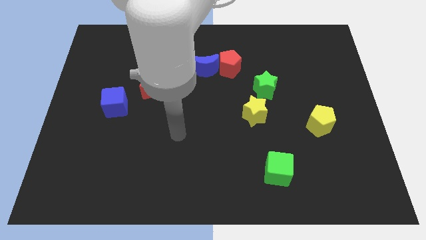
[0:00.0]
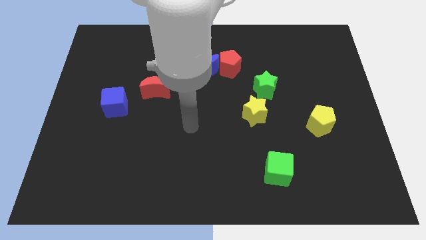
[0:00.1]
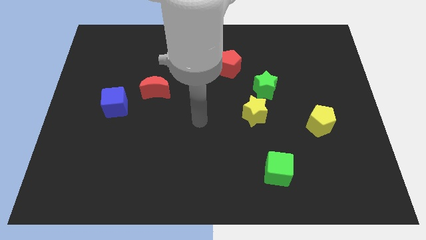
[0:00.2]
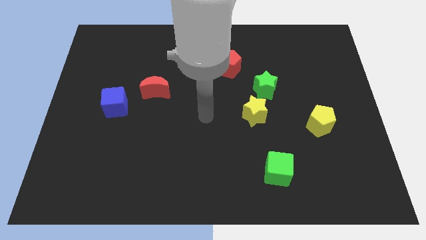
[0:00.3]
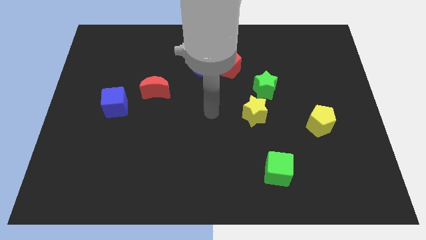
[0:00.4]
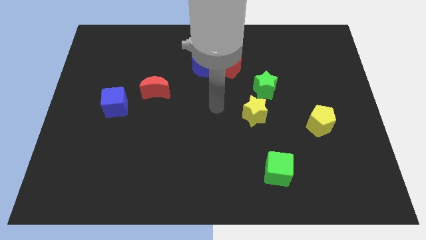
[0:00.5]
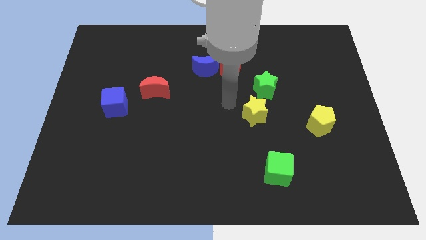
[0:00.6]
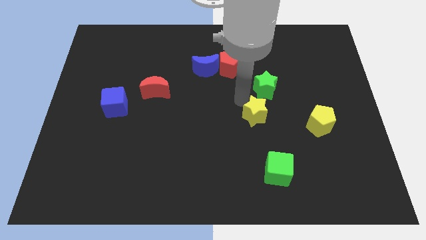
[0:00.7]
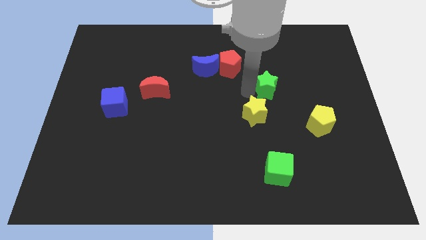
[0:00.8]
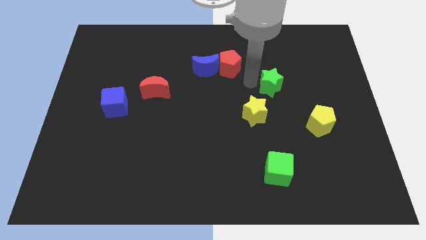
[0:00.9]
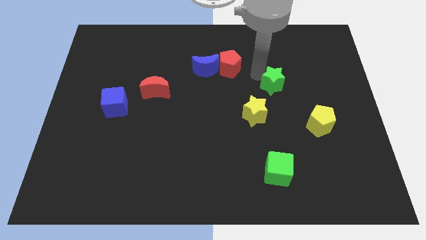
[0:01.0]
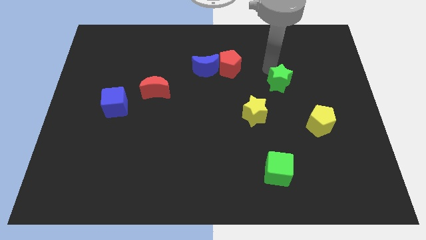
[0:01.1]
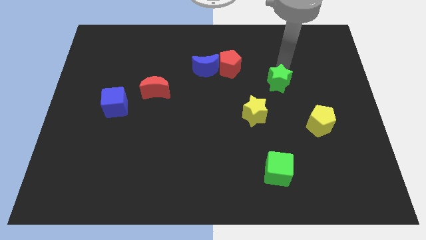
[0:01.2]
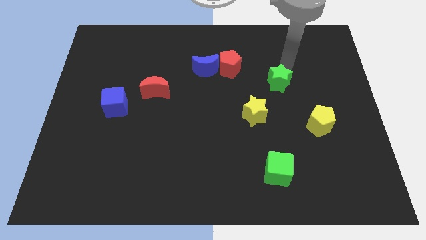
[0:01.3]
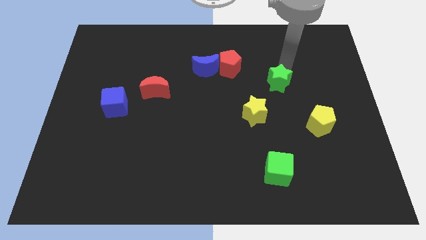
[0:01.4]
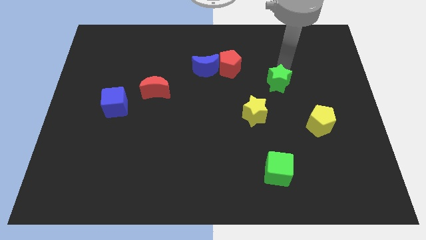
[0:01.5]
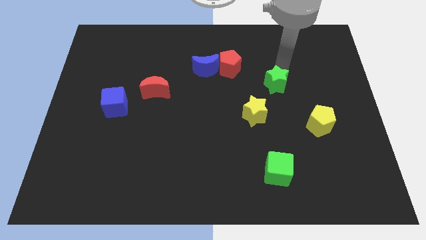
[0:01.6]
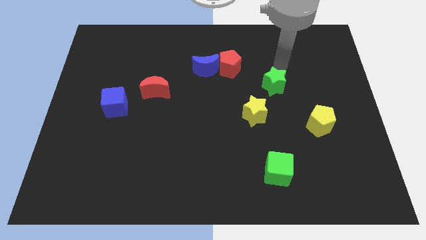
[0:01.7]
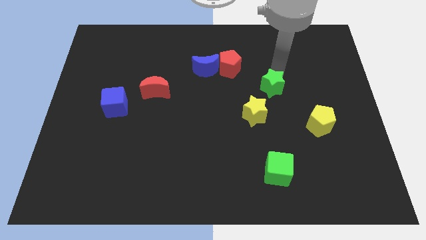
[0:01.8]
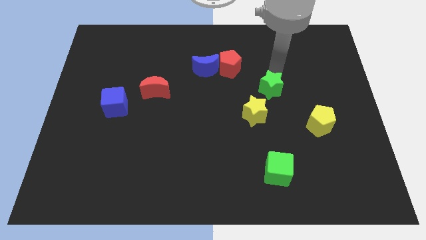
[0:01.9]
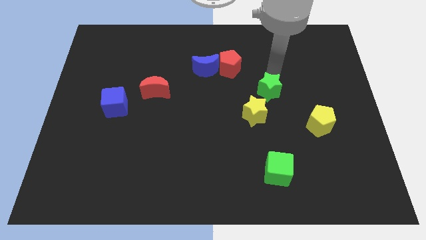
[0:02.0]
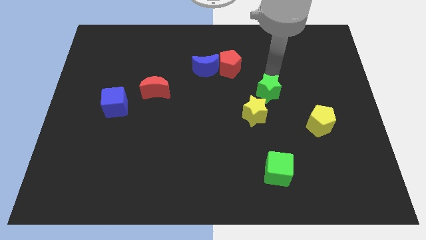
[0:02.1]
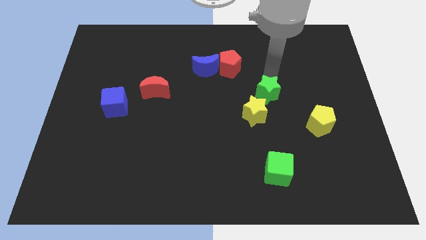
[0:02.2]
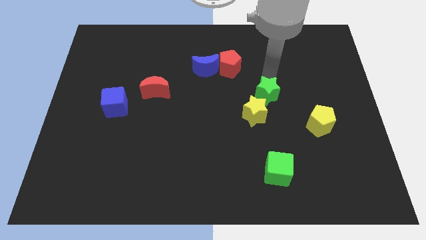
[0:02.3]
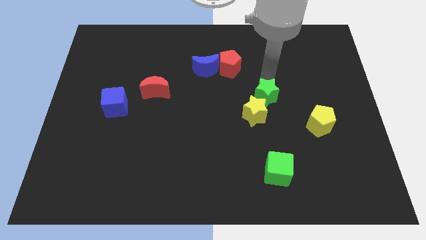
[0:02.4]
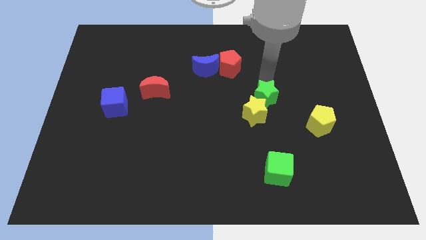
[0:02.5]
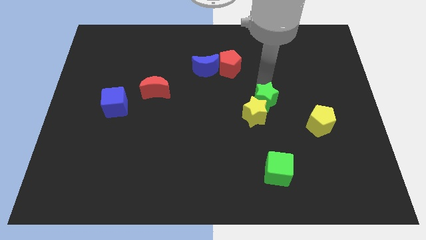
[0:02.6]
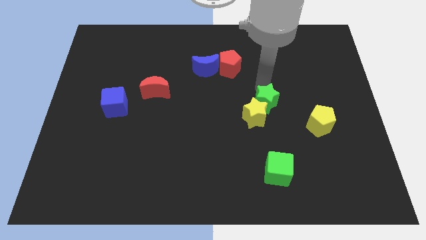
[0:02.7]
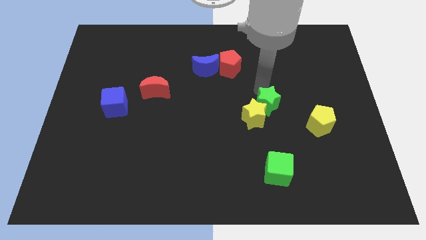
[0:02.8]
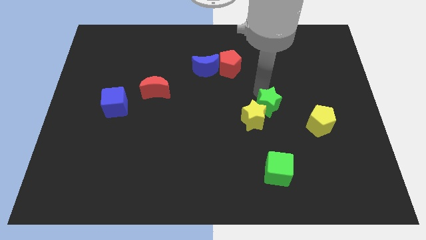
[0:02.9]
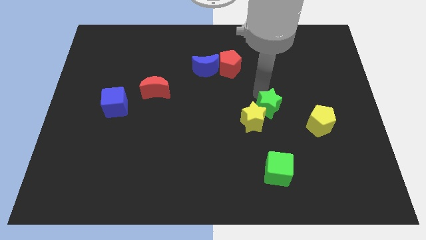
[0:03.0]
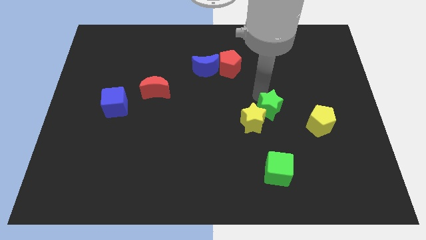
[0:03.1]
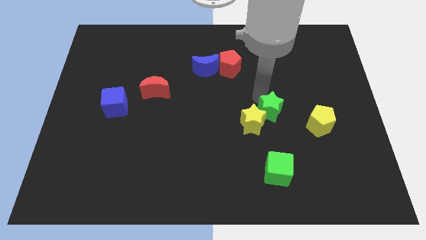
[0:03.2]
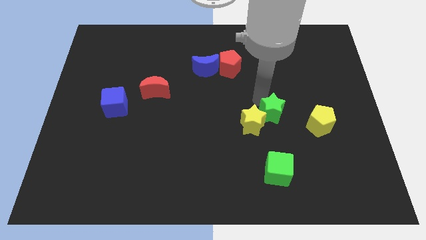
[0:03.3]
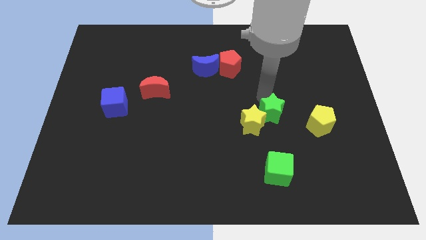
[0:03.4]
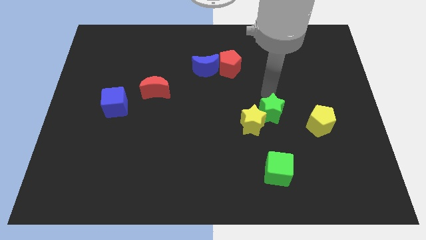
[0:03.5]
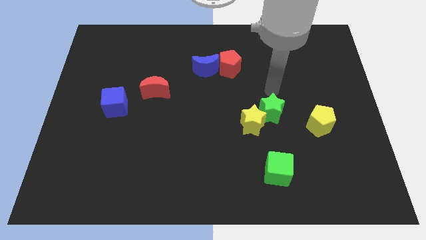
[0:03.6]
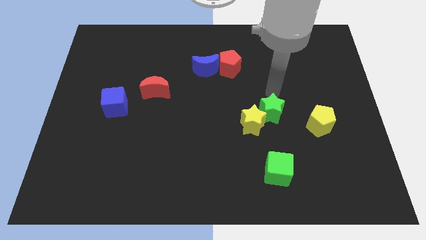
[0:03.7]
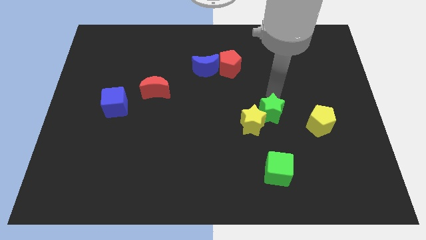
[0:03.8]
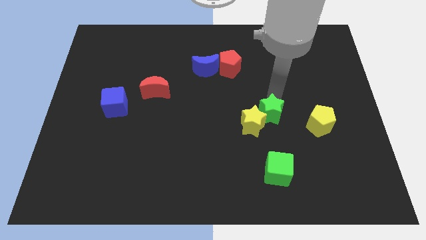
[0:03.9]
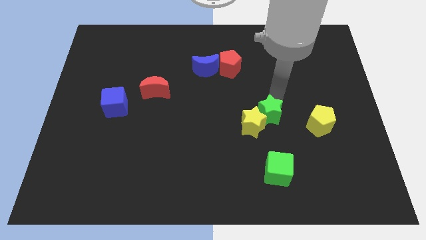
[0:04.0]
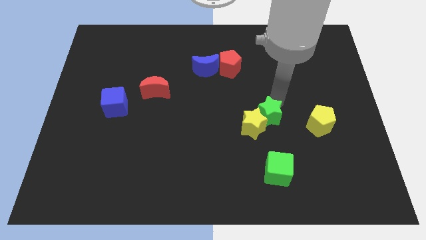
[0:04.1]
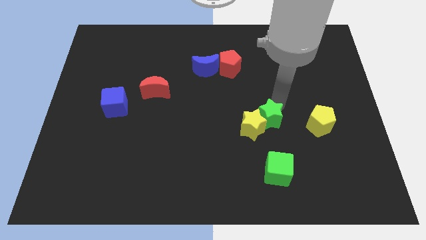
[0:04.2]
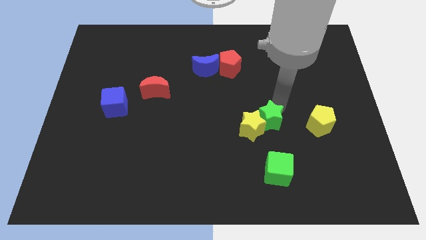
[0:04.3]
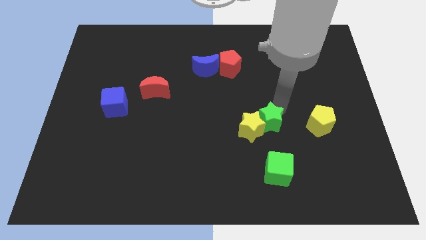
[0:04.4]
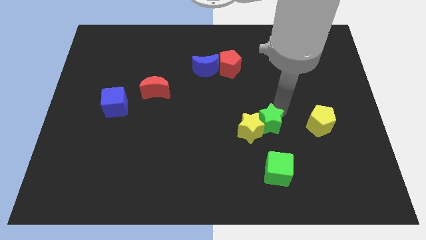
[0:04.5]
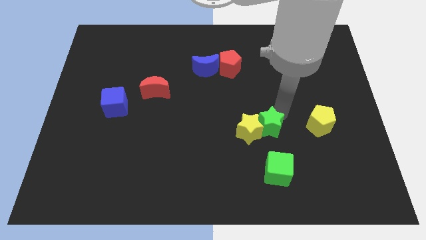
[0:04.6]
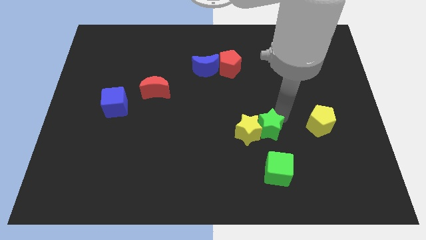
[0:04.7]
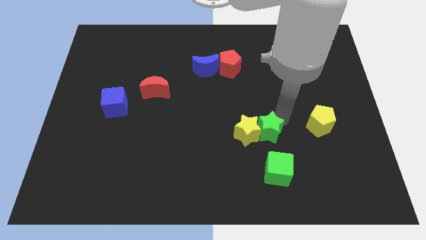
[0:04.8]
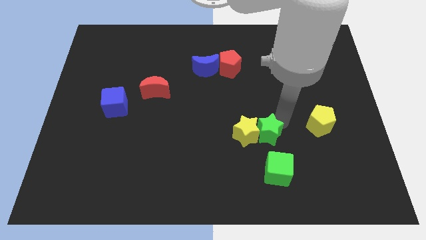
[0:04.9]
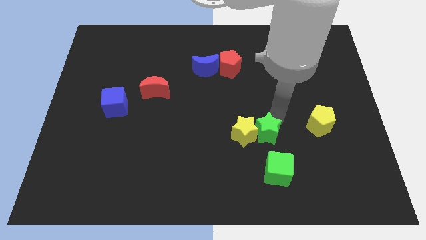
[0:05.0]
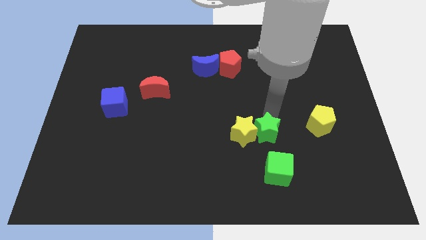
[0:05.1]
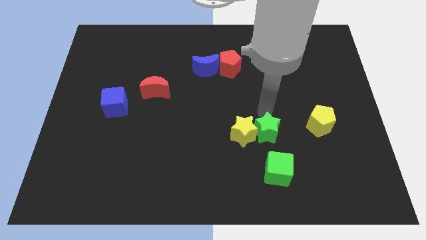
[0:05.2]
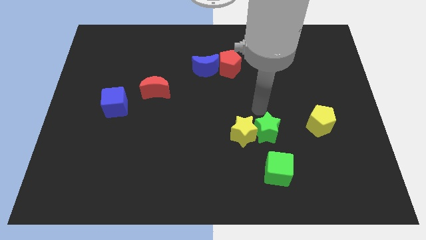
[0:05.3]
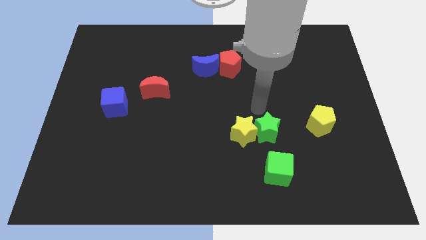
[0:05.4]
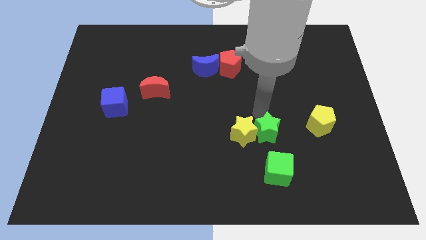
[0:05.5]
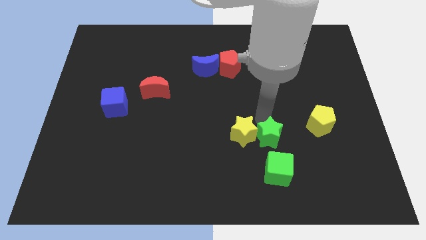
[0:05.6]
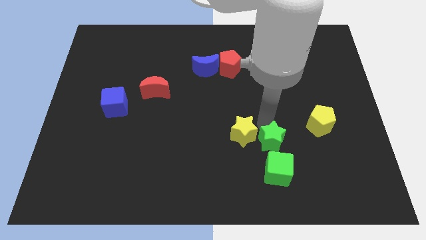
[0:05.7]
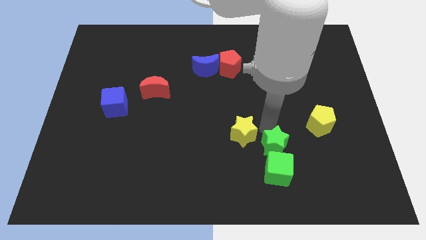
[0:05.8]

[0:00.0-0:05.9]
move the green star next to the green cube
